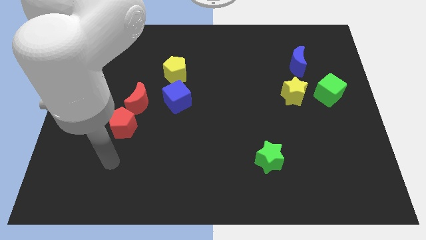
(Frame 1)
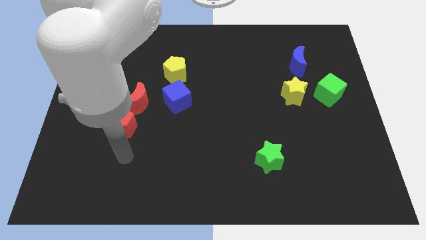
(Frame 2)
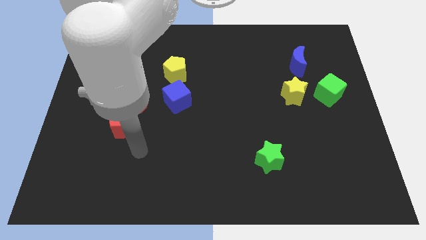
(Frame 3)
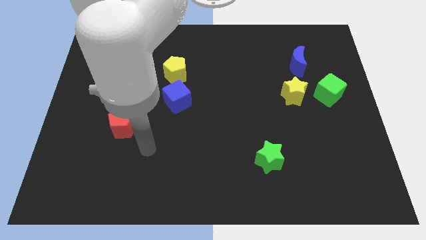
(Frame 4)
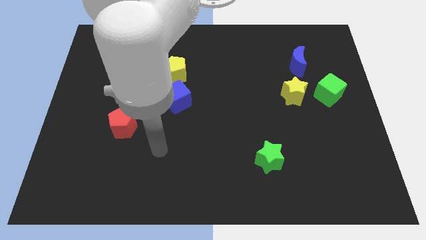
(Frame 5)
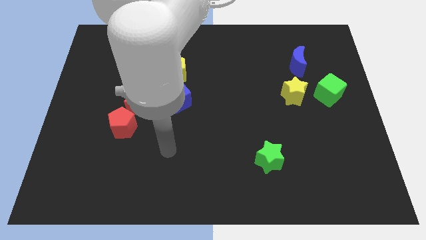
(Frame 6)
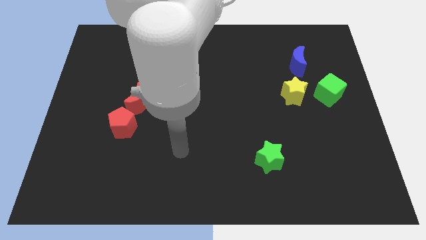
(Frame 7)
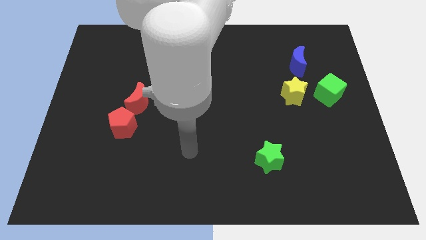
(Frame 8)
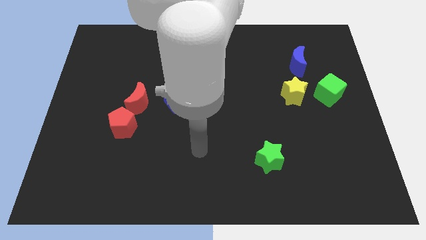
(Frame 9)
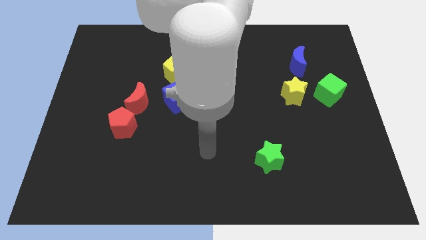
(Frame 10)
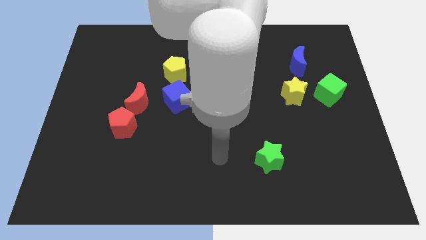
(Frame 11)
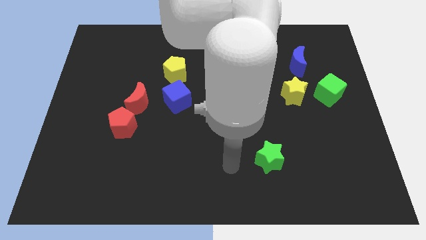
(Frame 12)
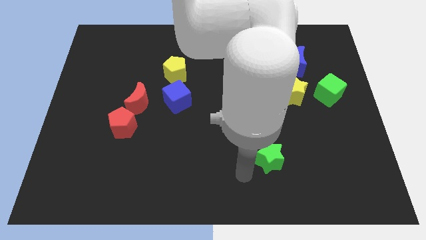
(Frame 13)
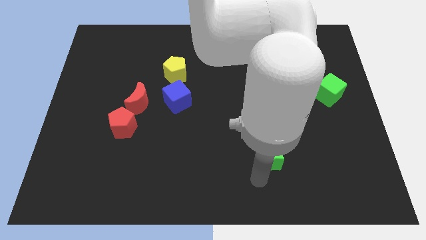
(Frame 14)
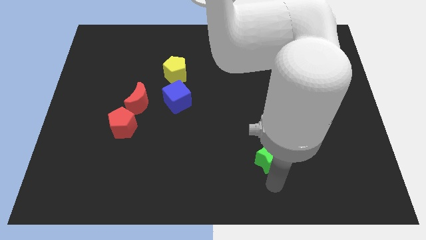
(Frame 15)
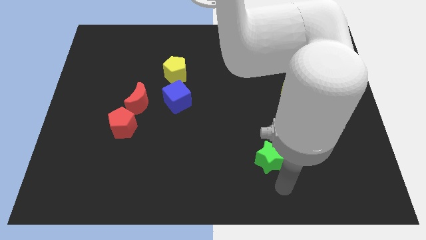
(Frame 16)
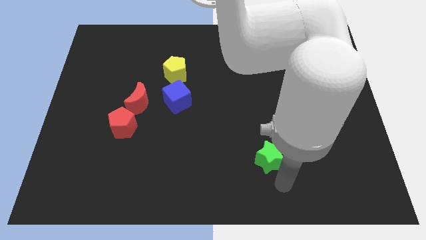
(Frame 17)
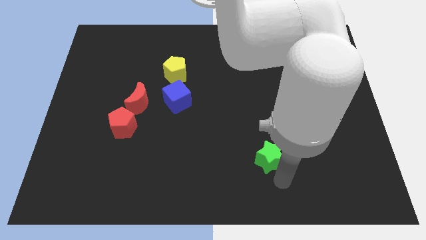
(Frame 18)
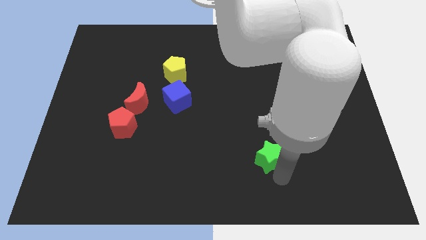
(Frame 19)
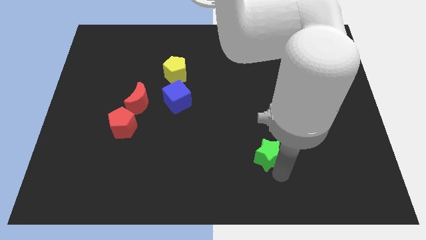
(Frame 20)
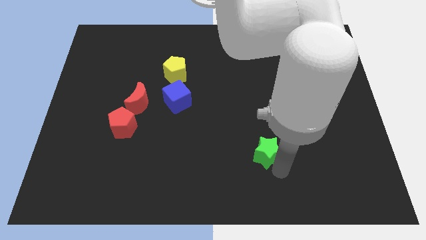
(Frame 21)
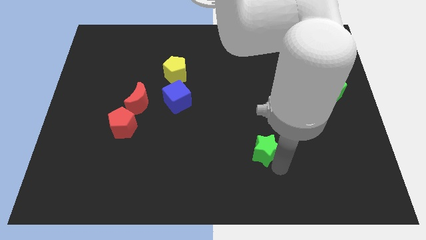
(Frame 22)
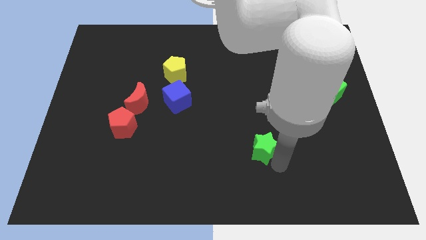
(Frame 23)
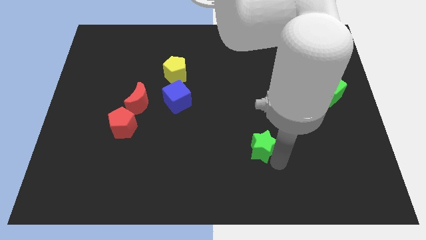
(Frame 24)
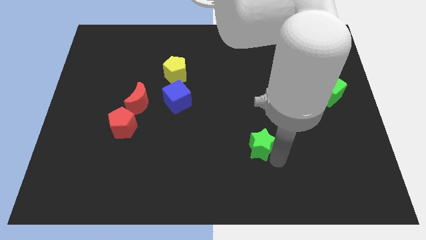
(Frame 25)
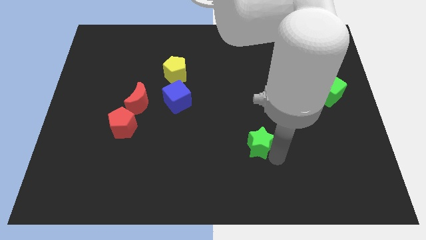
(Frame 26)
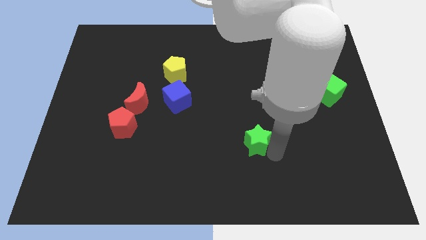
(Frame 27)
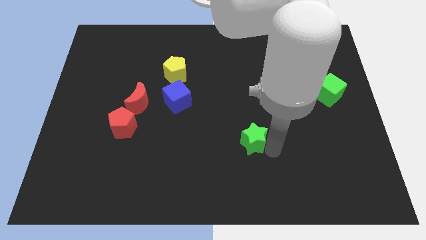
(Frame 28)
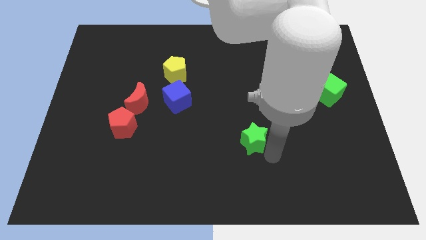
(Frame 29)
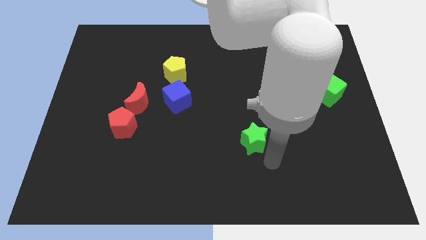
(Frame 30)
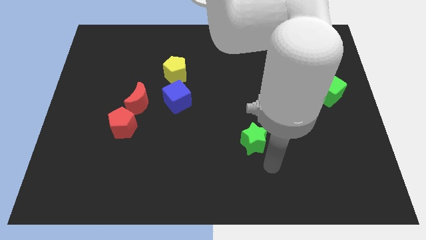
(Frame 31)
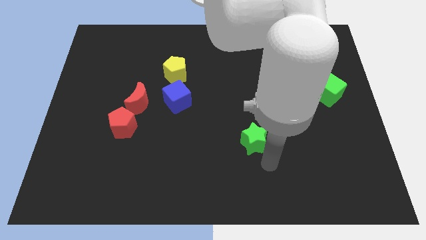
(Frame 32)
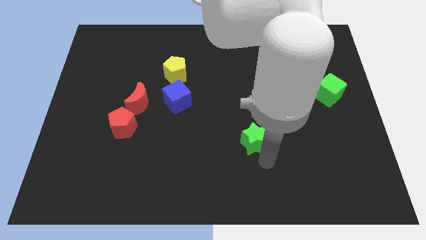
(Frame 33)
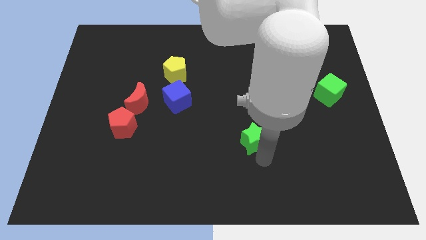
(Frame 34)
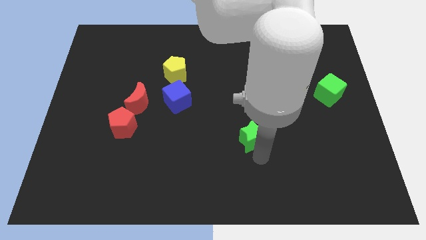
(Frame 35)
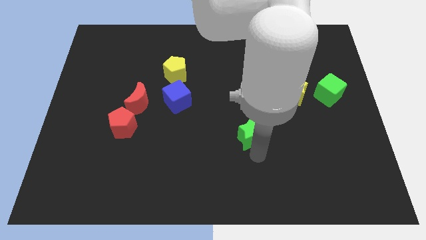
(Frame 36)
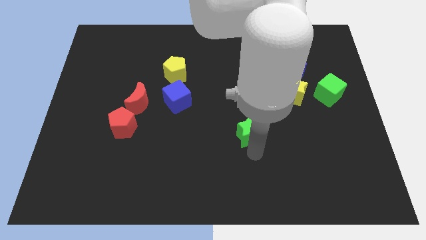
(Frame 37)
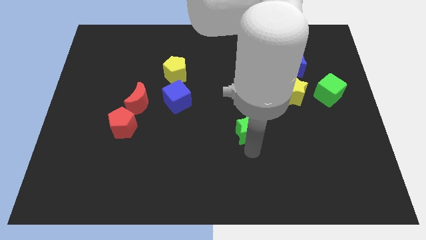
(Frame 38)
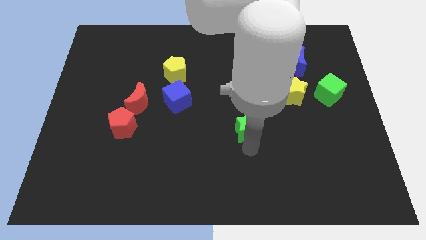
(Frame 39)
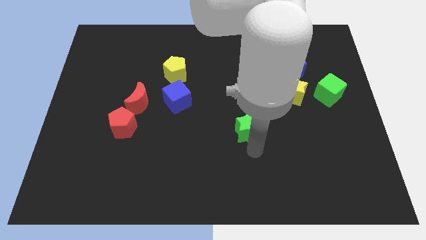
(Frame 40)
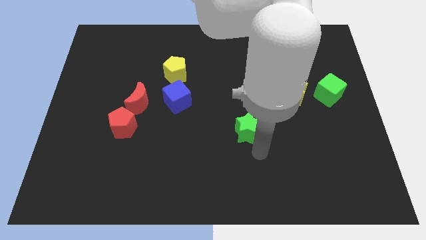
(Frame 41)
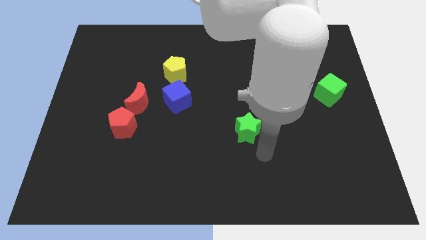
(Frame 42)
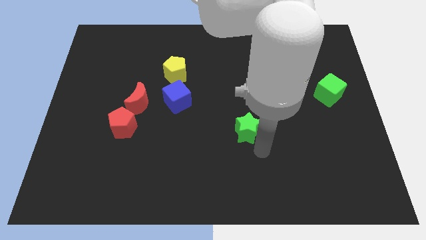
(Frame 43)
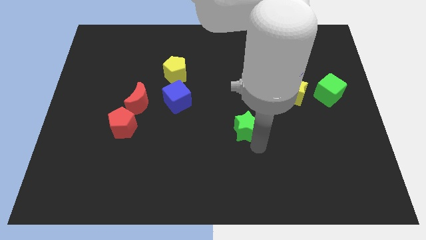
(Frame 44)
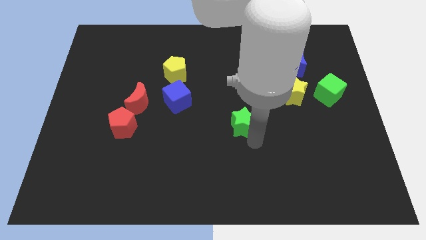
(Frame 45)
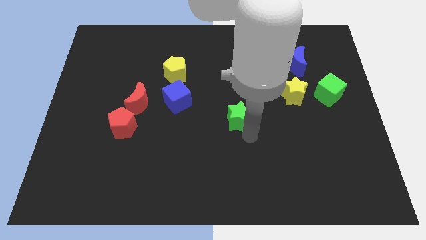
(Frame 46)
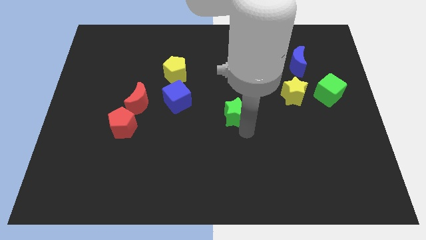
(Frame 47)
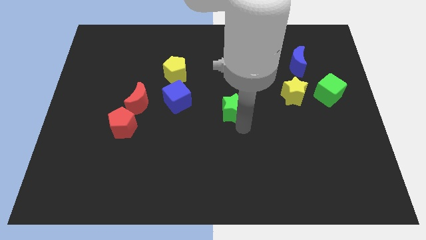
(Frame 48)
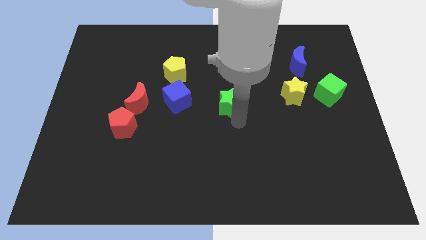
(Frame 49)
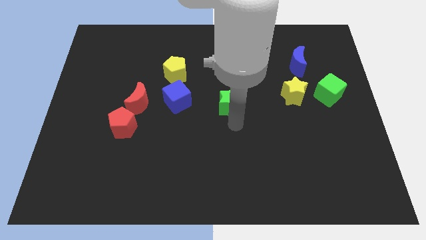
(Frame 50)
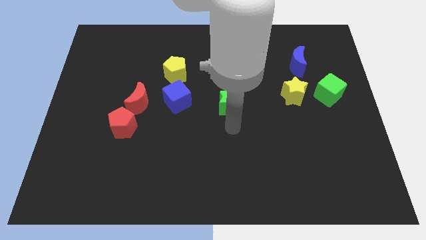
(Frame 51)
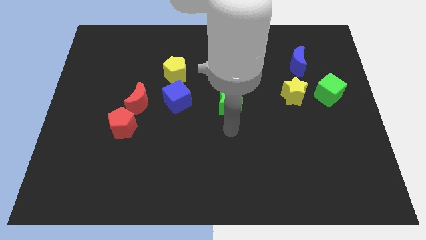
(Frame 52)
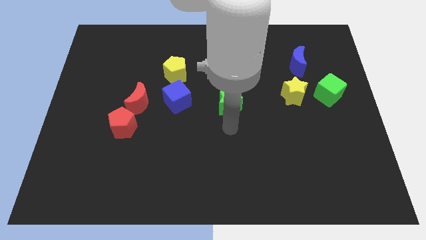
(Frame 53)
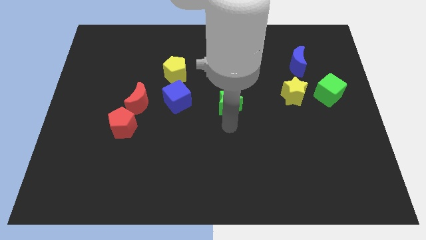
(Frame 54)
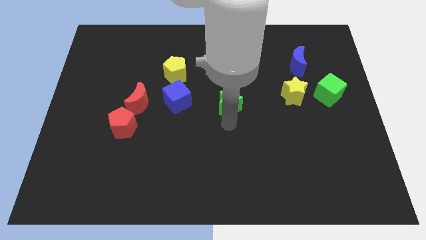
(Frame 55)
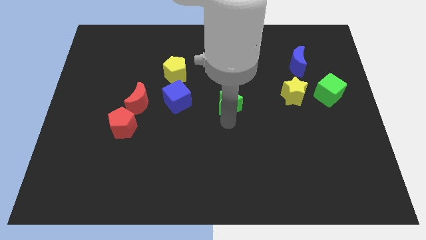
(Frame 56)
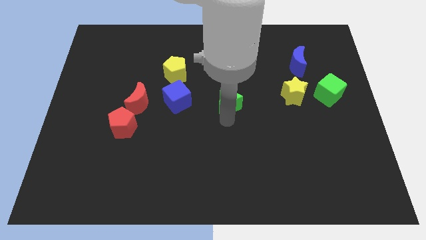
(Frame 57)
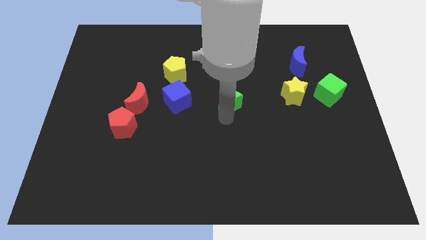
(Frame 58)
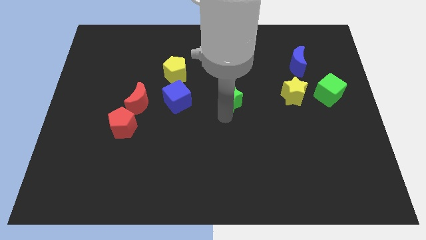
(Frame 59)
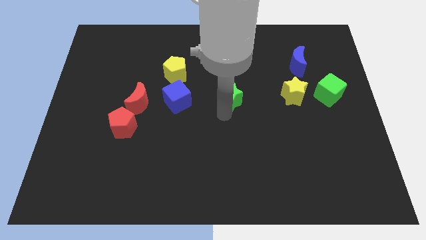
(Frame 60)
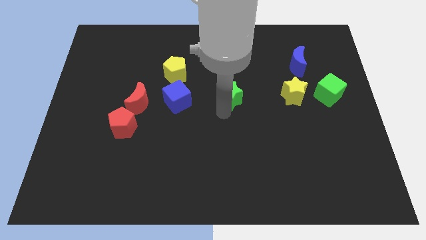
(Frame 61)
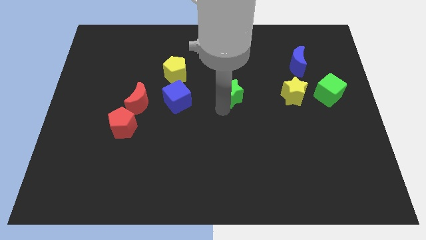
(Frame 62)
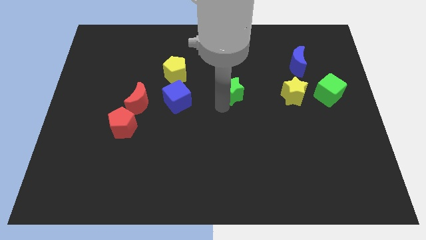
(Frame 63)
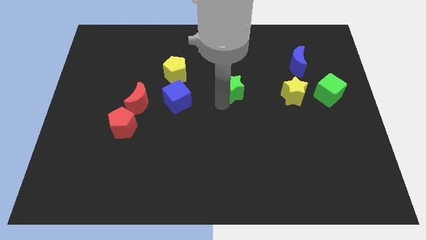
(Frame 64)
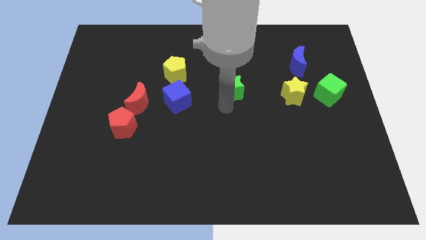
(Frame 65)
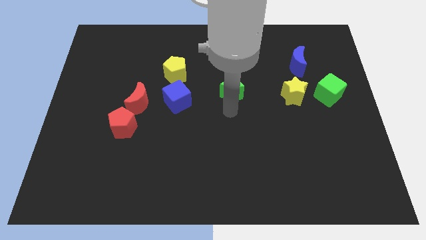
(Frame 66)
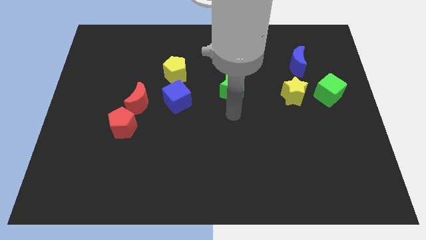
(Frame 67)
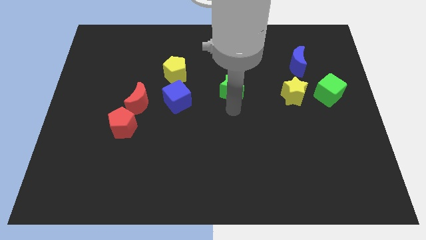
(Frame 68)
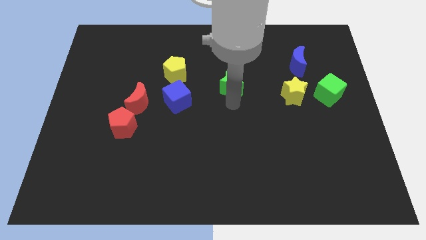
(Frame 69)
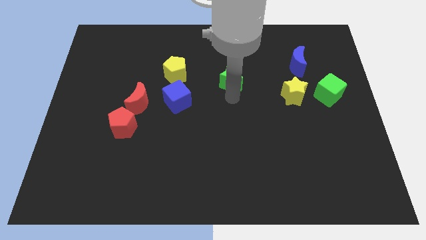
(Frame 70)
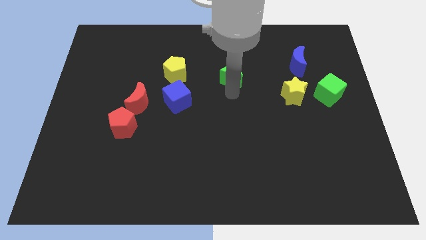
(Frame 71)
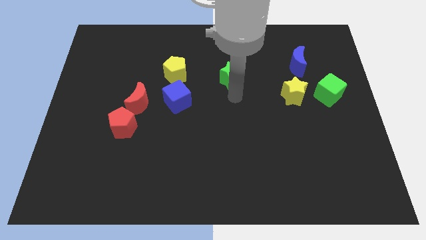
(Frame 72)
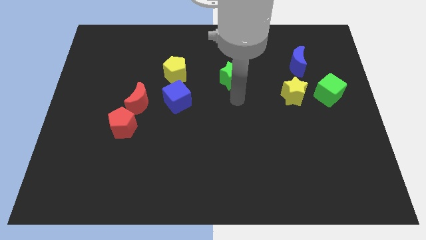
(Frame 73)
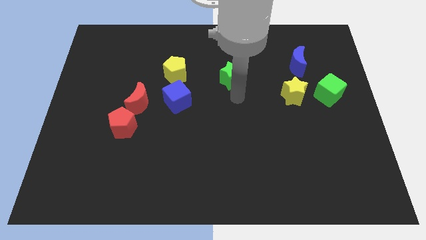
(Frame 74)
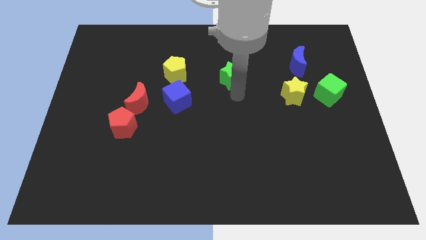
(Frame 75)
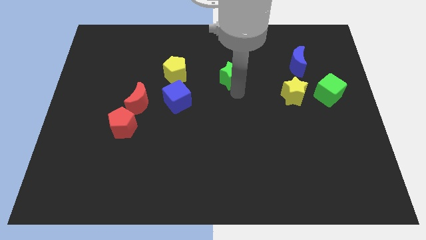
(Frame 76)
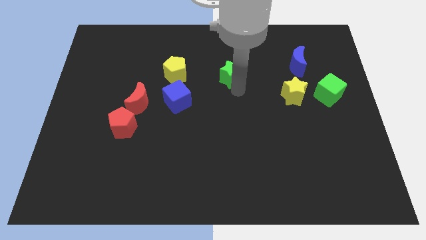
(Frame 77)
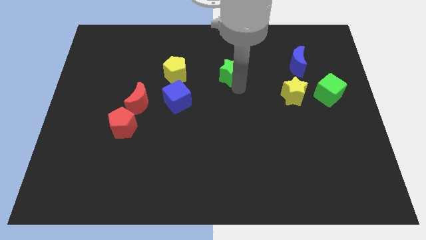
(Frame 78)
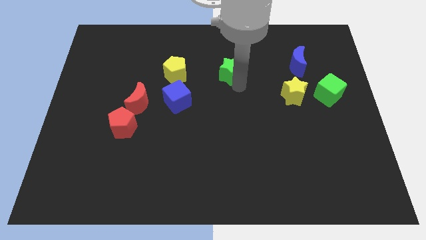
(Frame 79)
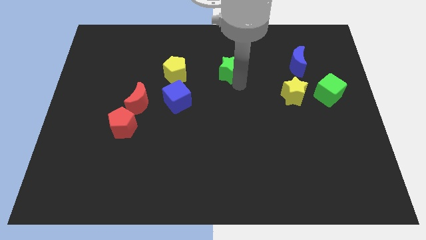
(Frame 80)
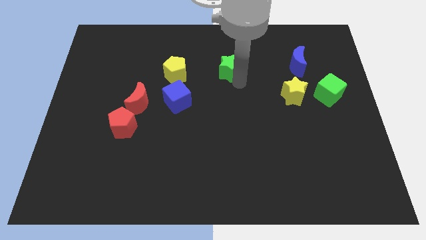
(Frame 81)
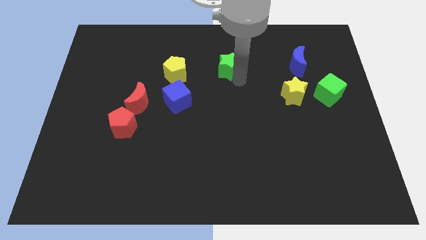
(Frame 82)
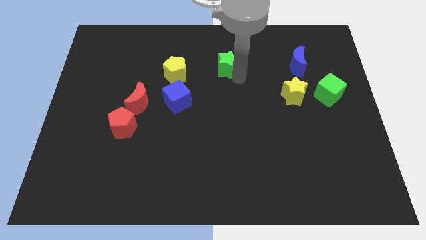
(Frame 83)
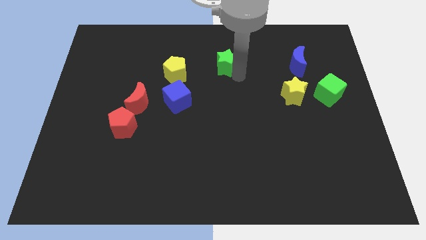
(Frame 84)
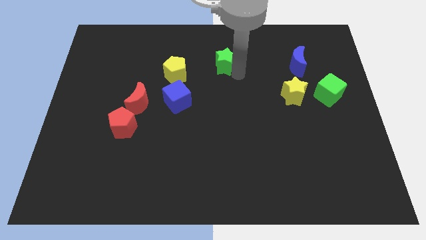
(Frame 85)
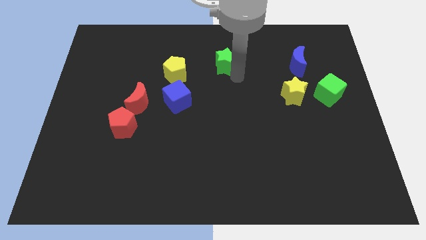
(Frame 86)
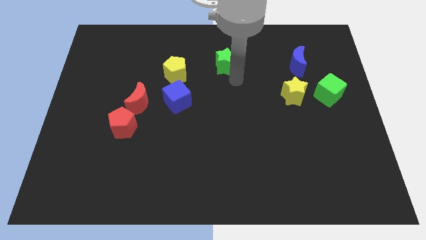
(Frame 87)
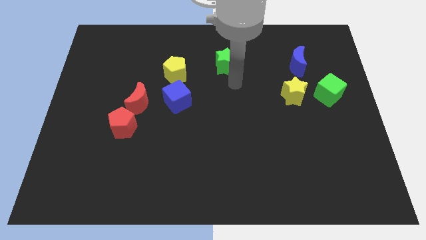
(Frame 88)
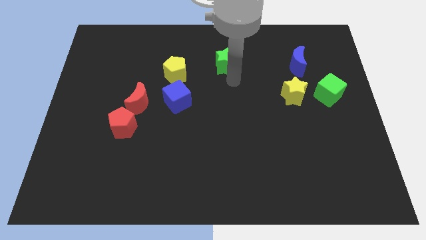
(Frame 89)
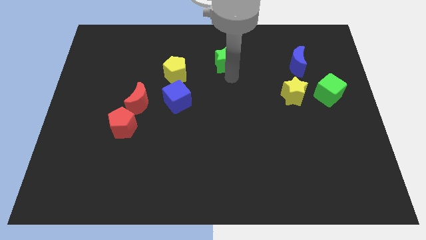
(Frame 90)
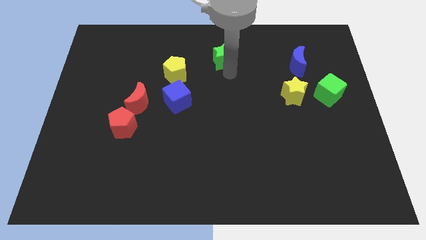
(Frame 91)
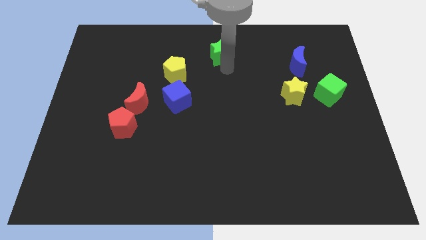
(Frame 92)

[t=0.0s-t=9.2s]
push the green star to the towards your base
